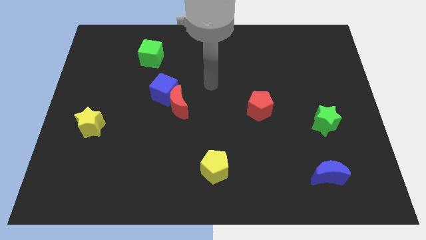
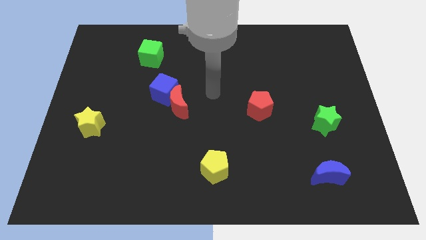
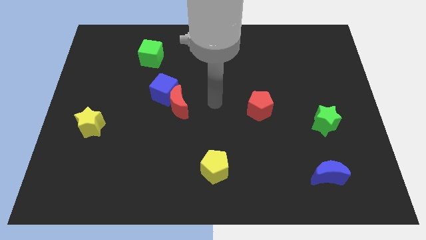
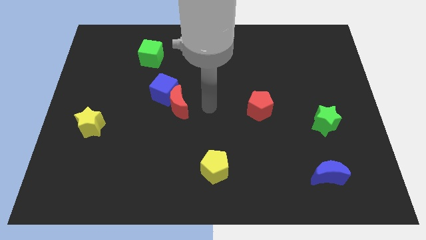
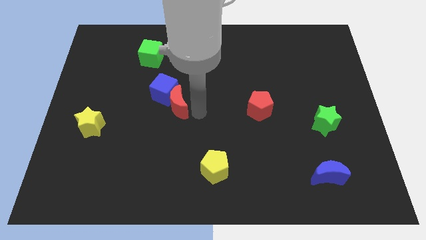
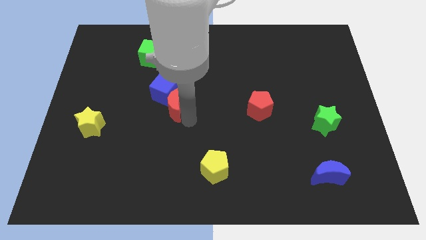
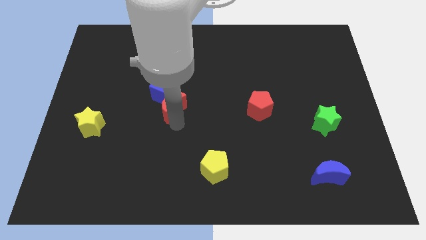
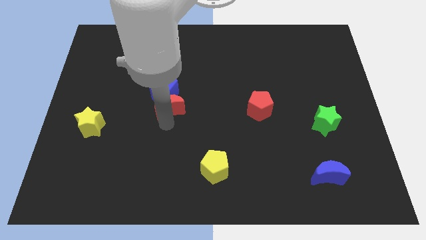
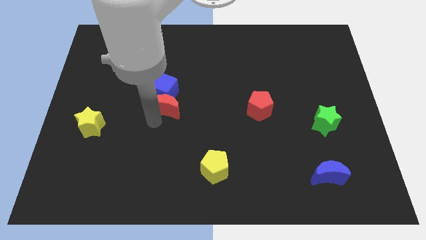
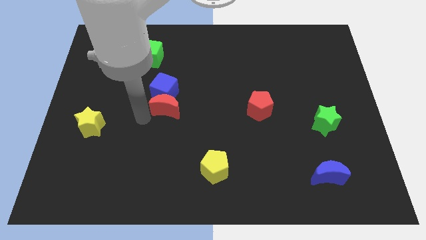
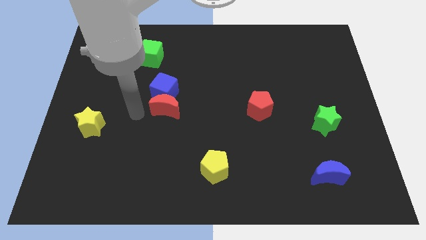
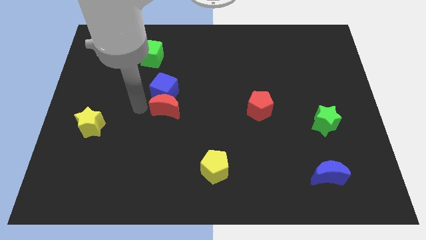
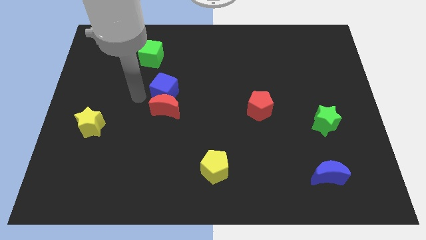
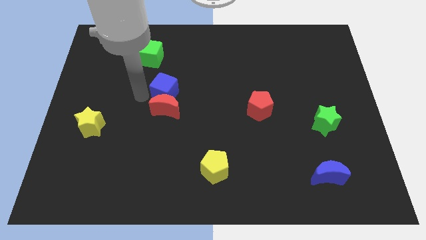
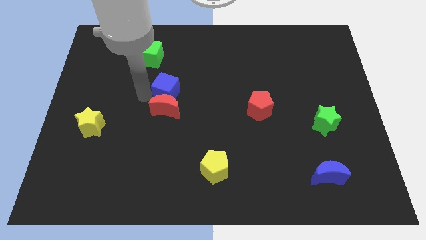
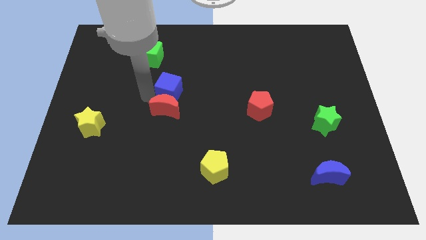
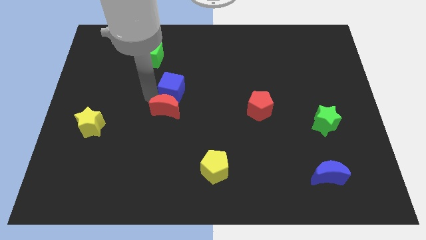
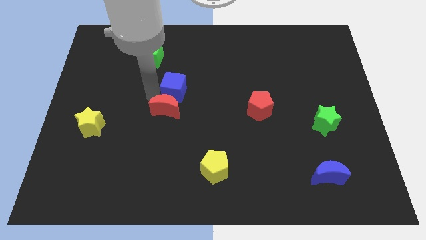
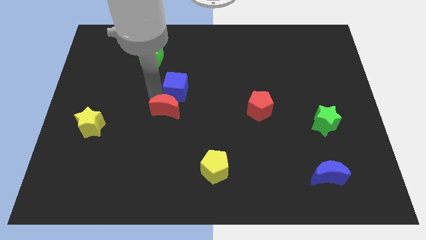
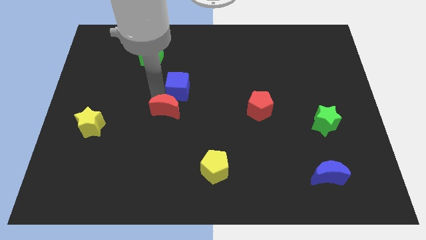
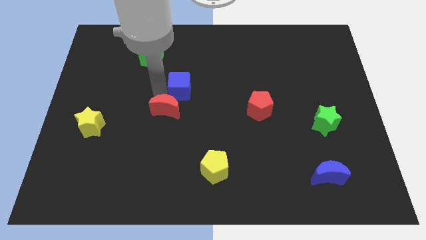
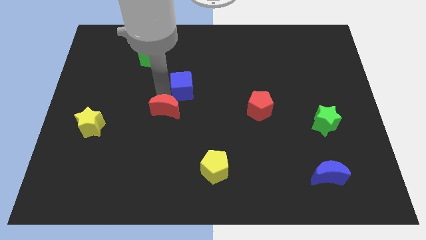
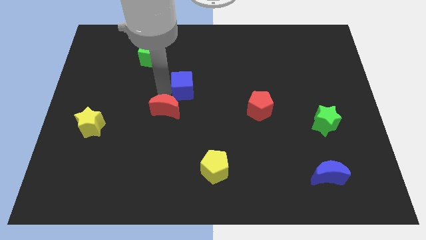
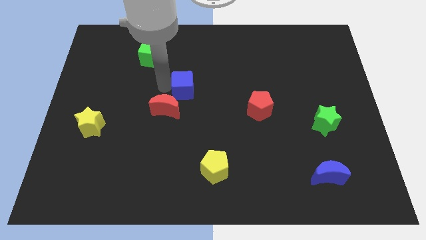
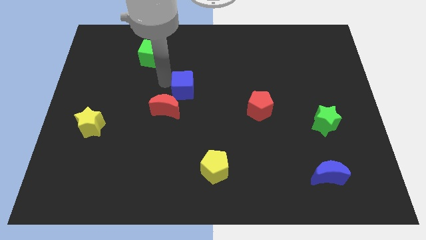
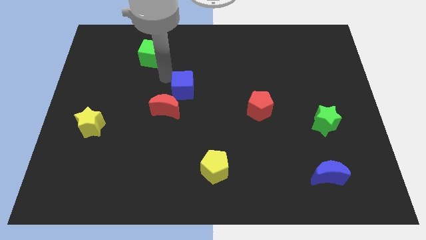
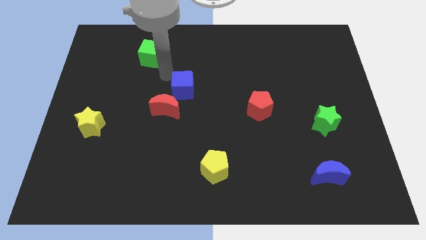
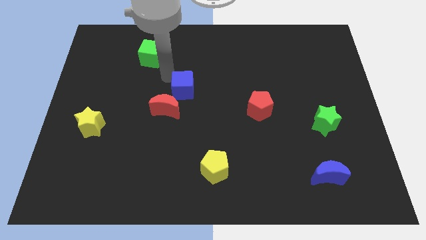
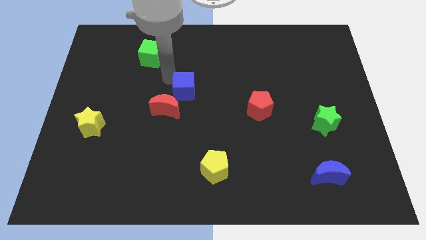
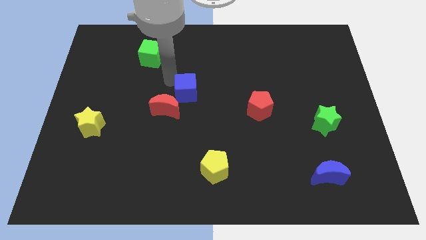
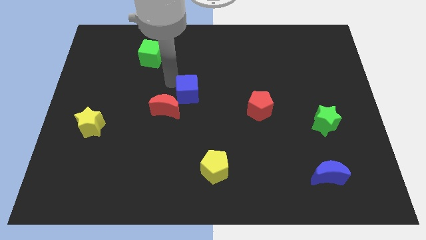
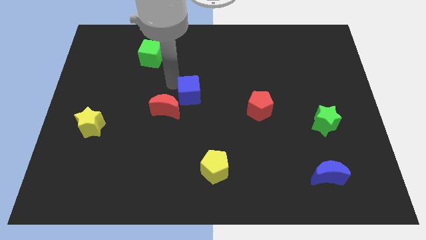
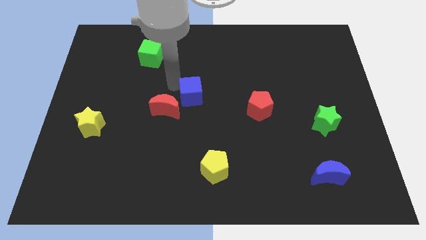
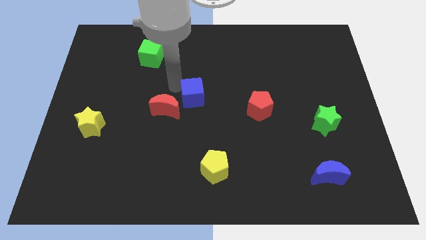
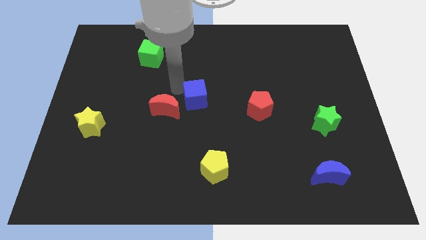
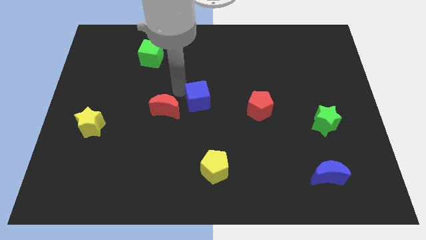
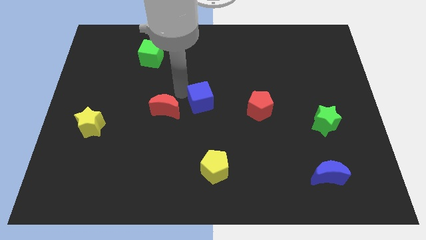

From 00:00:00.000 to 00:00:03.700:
push the blue cube slightly down and then to the right

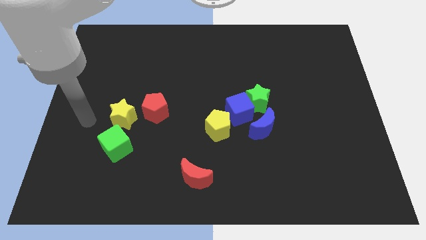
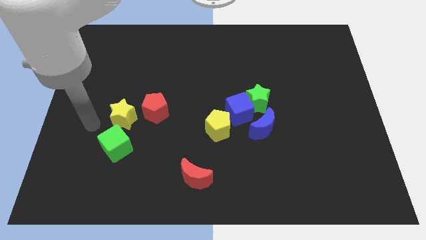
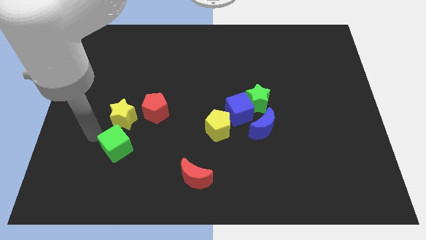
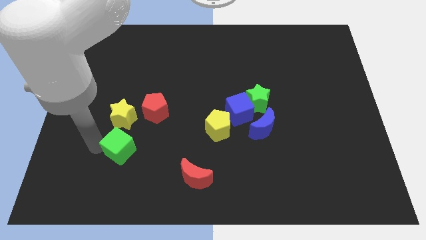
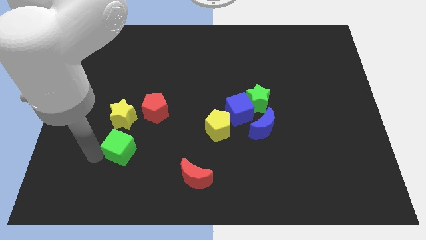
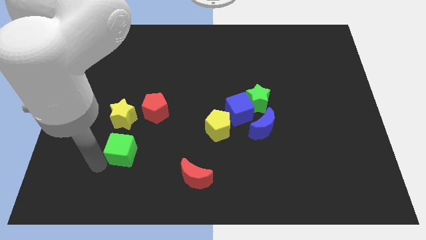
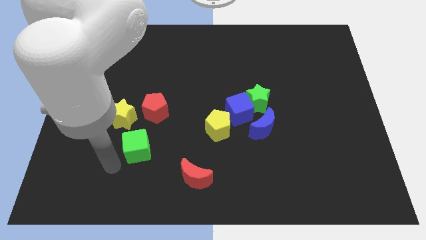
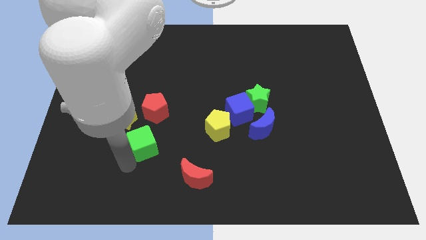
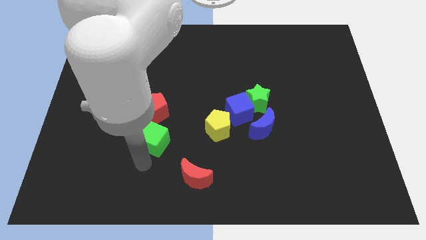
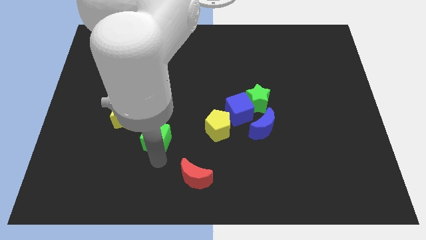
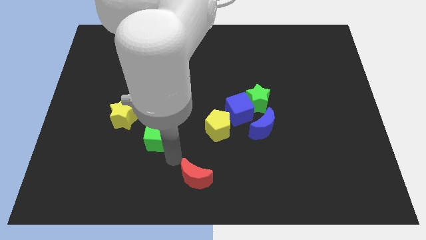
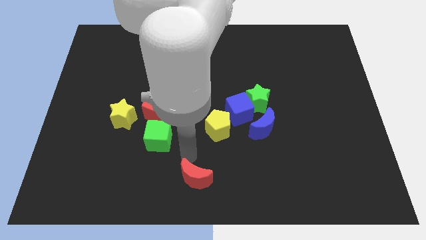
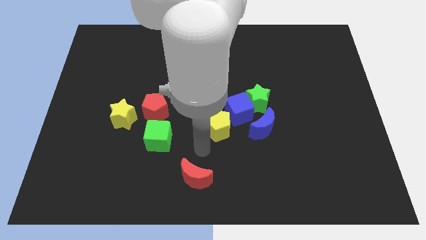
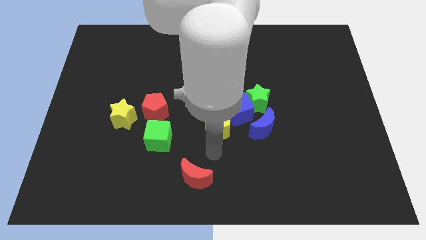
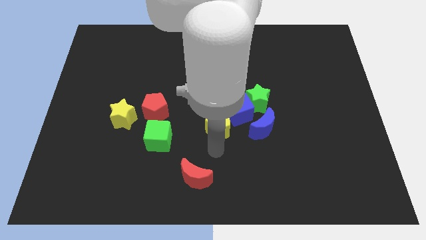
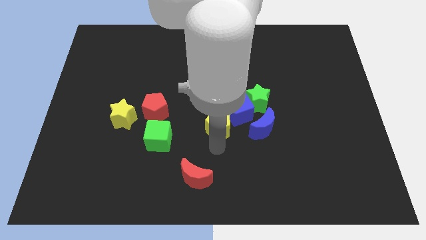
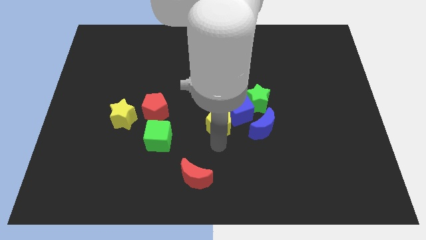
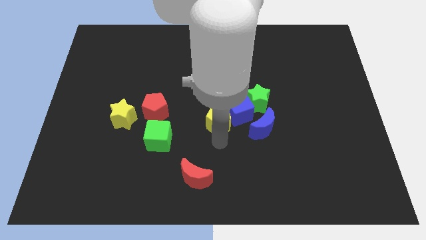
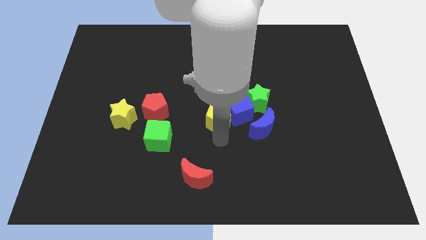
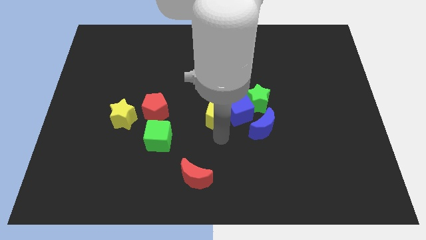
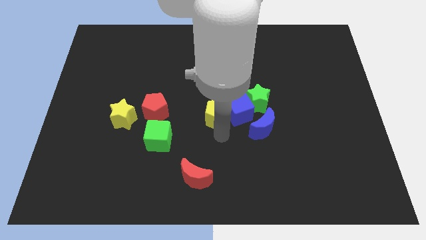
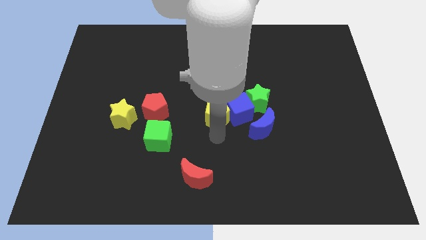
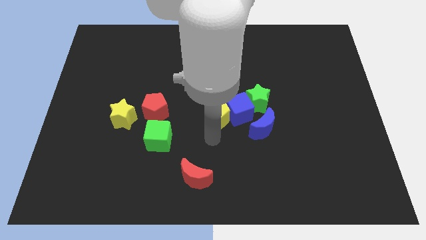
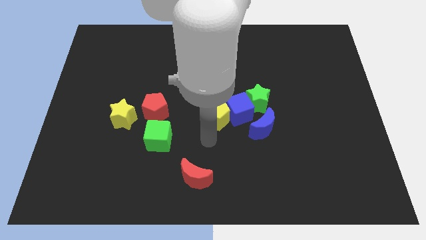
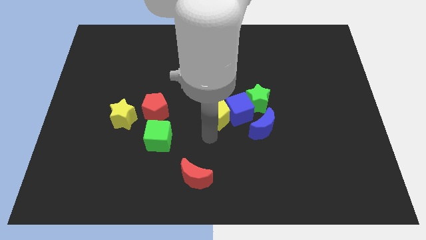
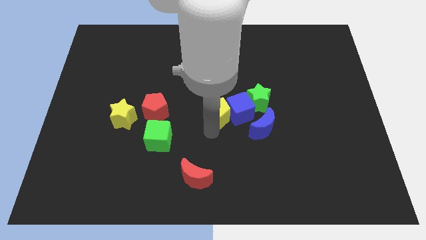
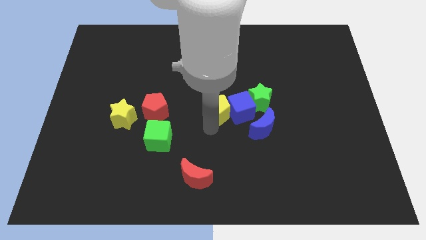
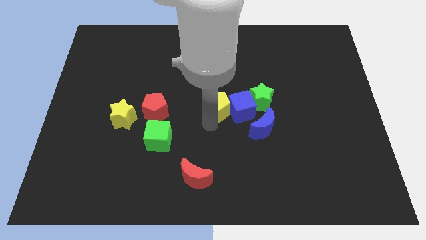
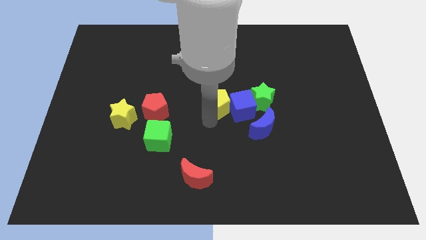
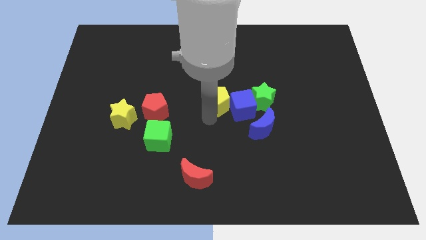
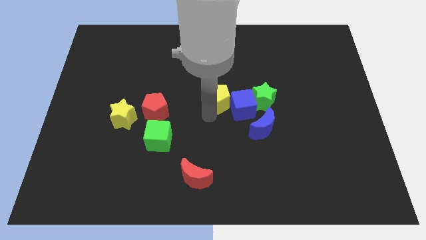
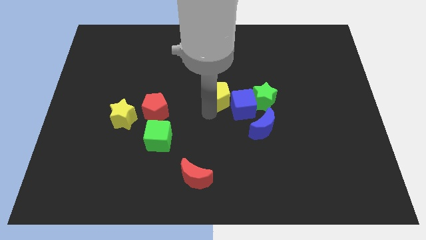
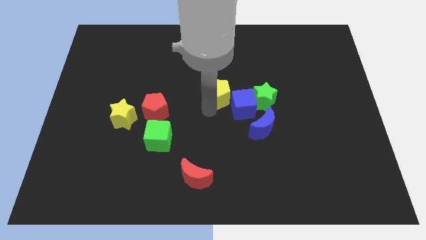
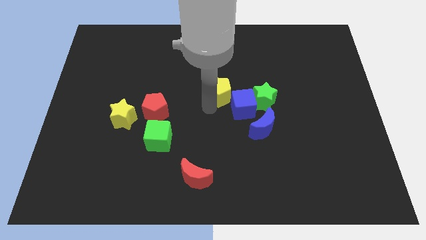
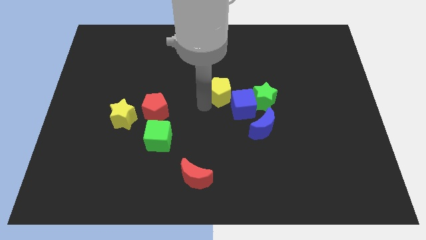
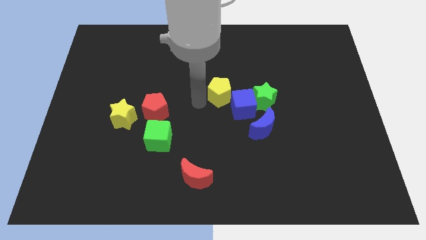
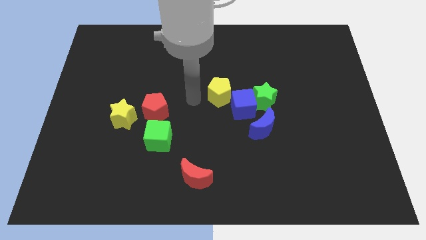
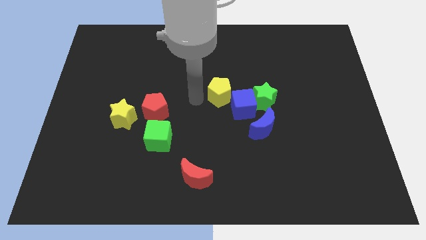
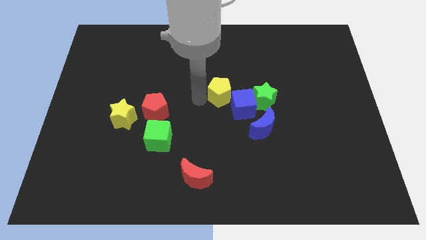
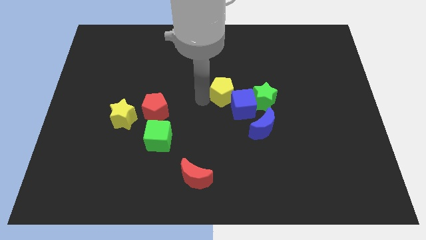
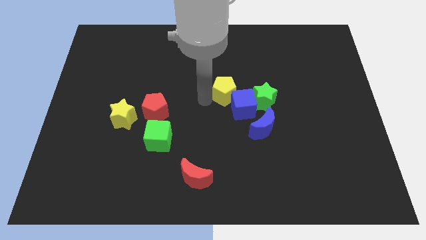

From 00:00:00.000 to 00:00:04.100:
move the yellow pentagon slightly diagonally up and to the right

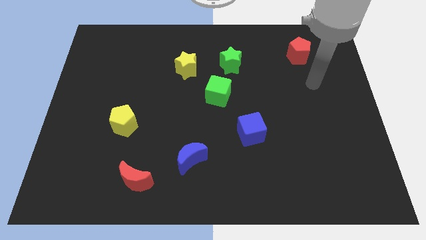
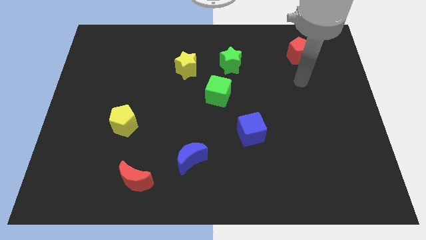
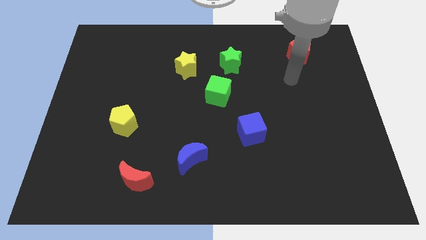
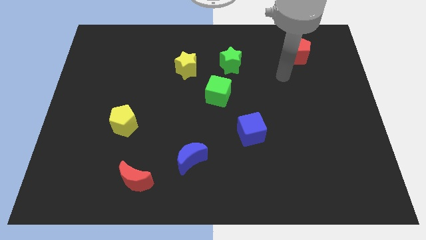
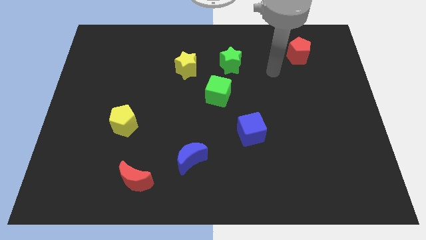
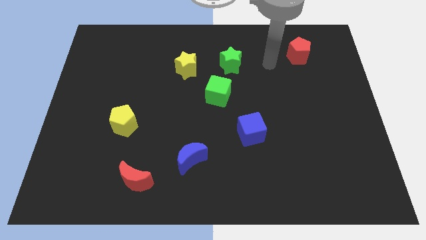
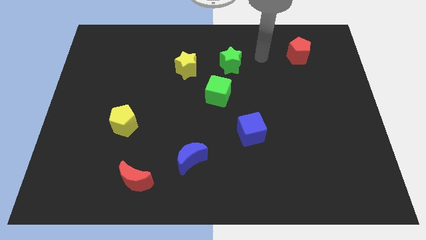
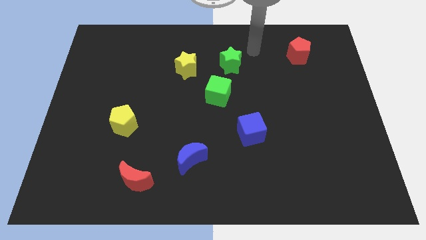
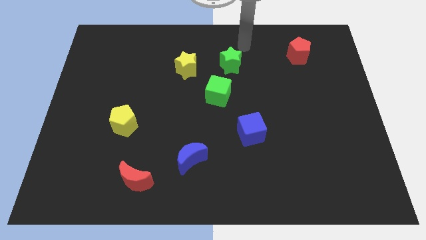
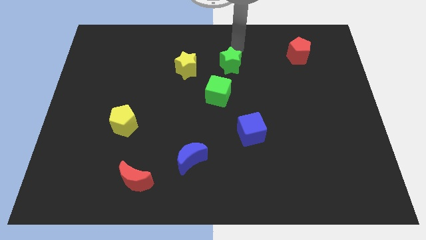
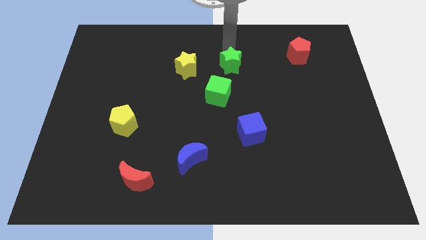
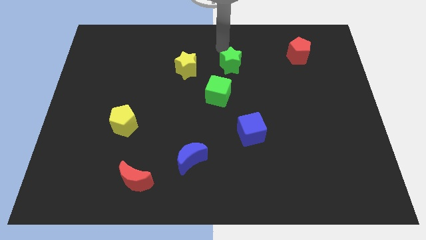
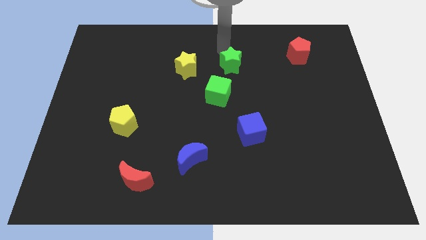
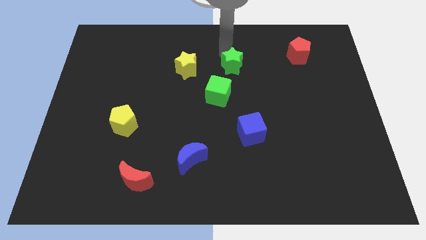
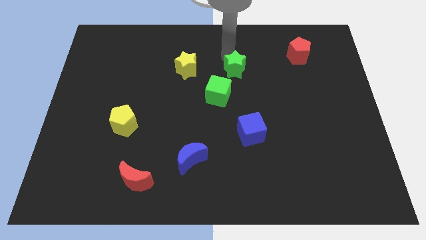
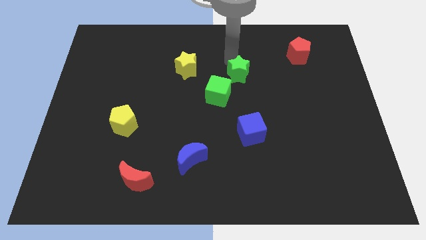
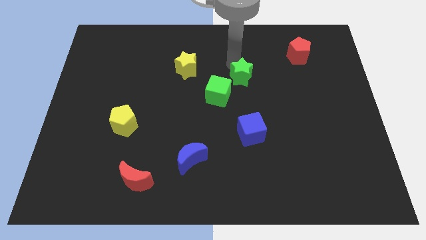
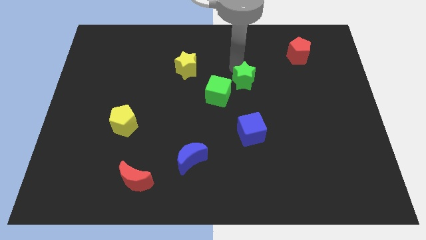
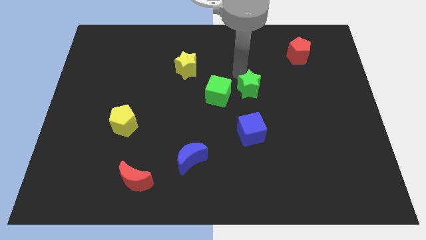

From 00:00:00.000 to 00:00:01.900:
push the green star a bit downwards and right diagonally
